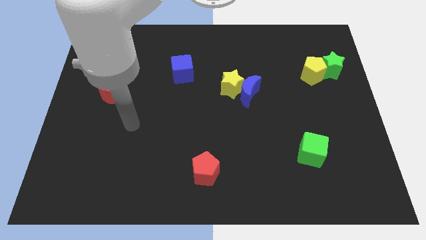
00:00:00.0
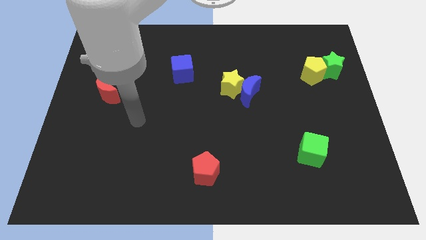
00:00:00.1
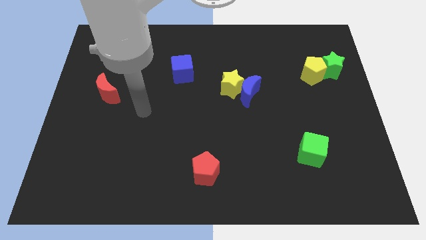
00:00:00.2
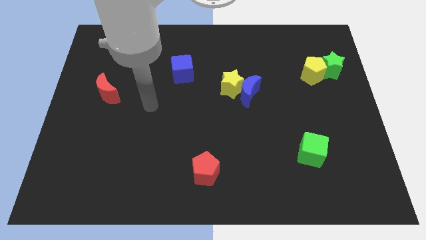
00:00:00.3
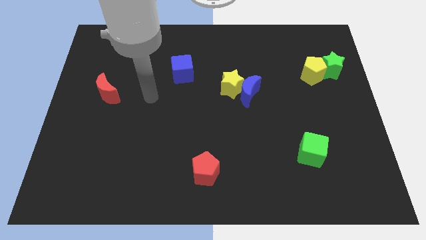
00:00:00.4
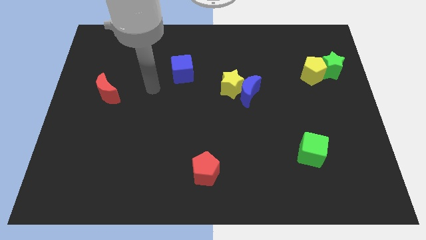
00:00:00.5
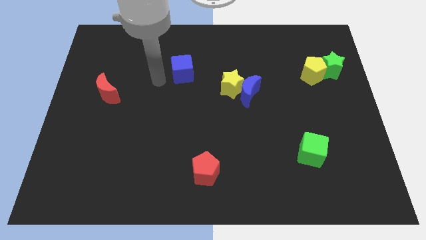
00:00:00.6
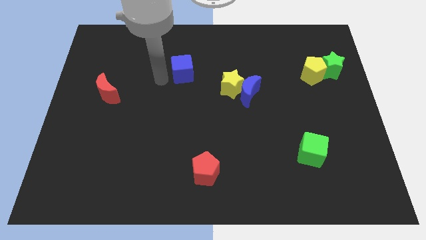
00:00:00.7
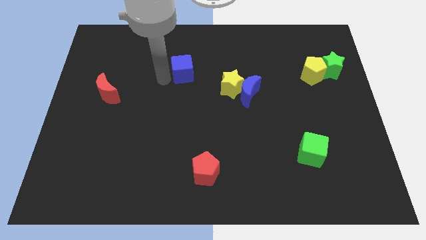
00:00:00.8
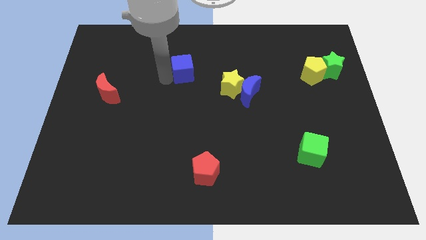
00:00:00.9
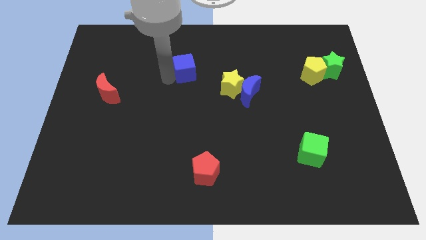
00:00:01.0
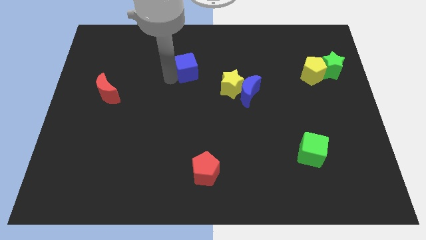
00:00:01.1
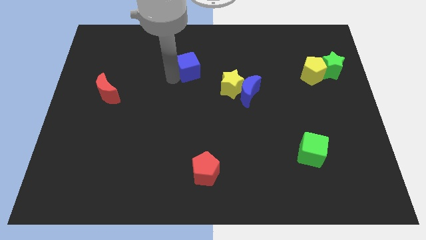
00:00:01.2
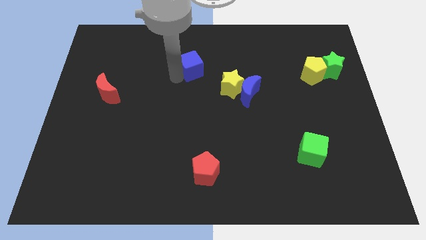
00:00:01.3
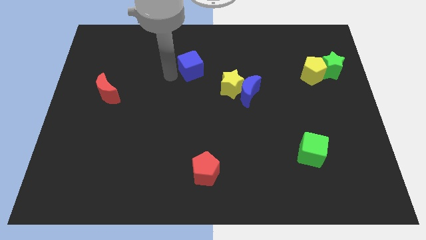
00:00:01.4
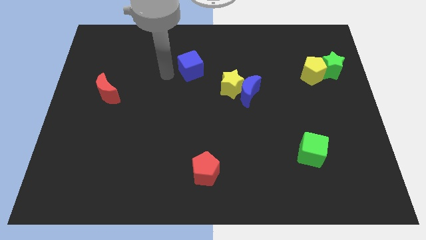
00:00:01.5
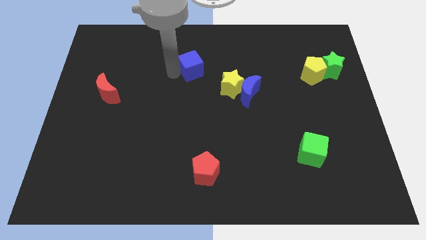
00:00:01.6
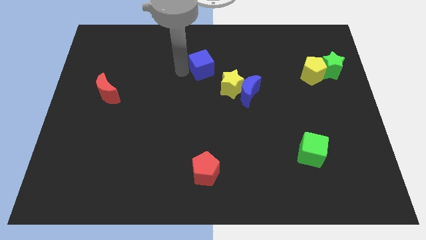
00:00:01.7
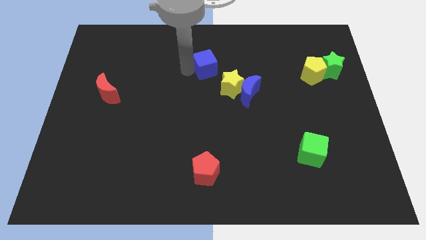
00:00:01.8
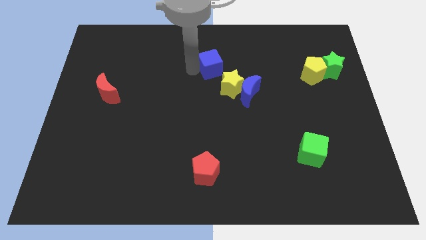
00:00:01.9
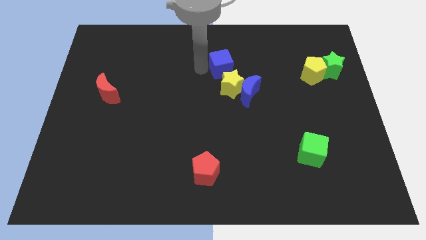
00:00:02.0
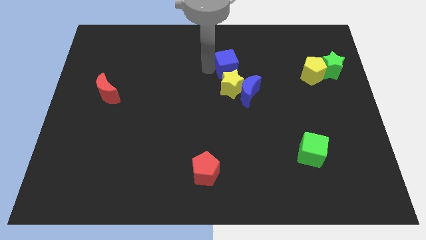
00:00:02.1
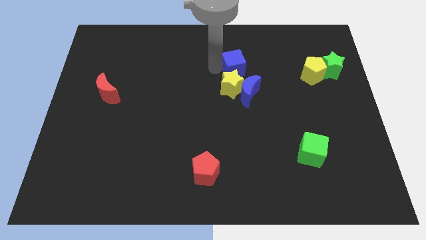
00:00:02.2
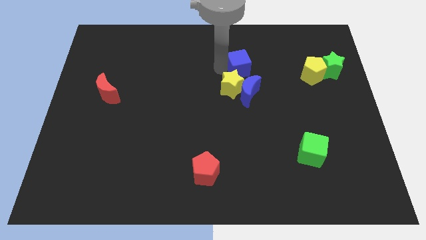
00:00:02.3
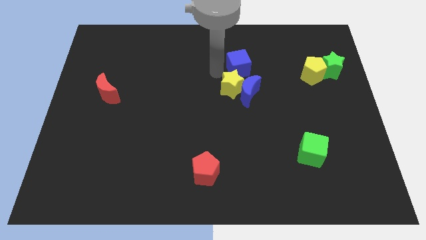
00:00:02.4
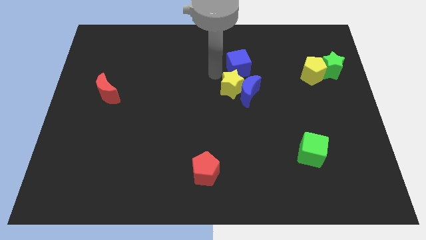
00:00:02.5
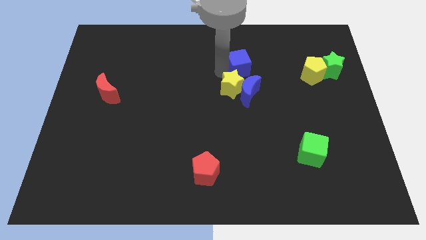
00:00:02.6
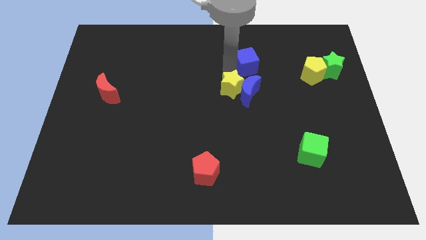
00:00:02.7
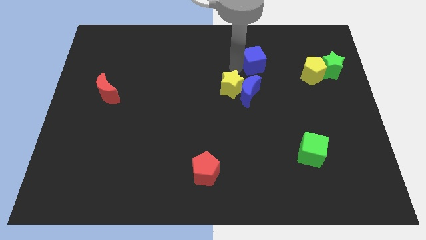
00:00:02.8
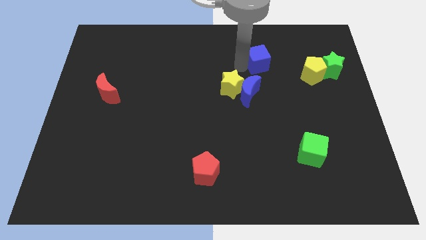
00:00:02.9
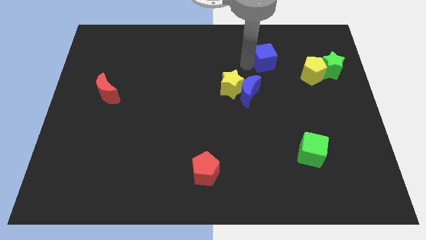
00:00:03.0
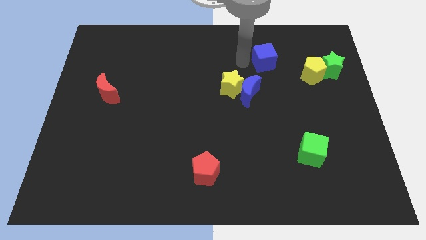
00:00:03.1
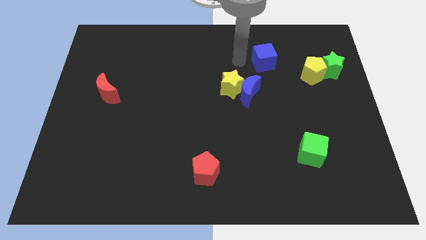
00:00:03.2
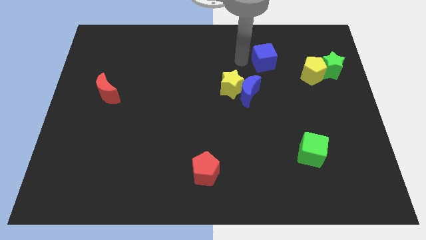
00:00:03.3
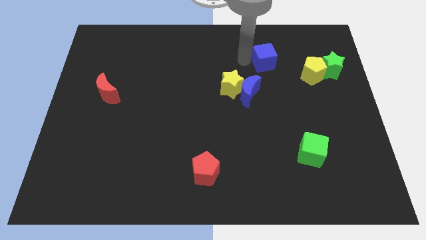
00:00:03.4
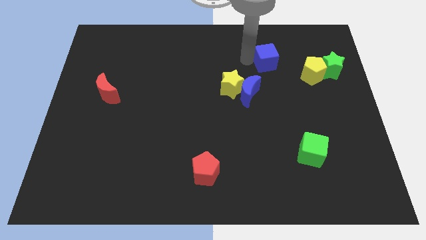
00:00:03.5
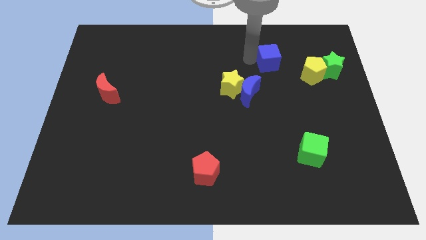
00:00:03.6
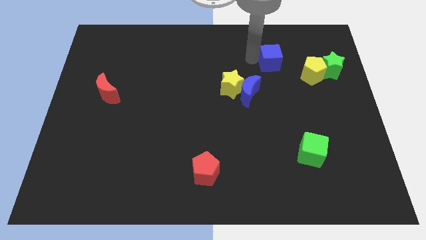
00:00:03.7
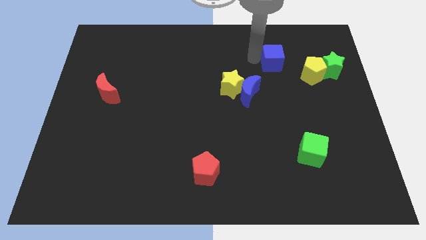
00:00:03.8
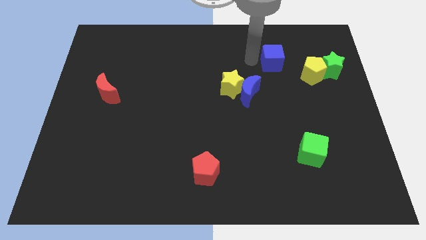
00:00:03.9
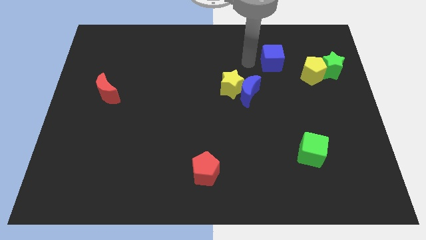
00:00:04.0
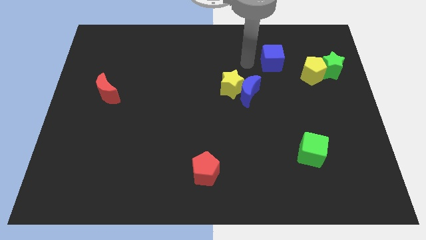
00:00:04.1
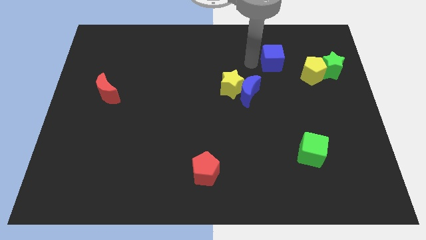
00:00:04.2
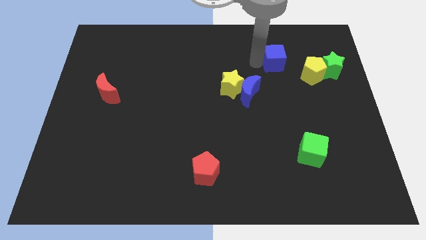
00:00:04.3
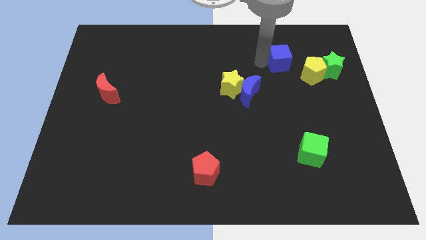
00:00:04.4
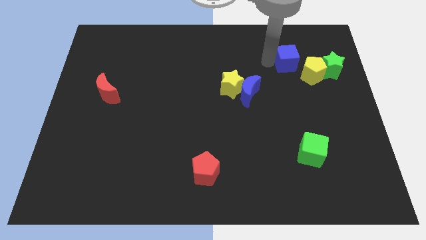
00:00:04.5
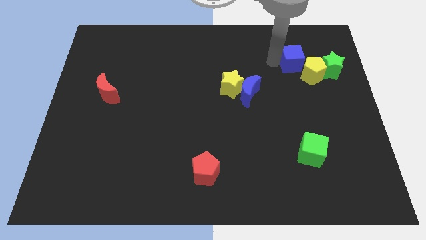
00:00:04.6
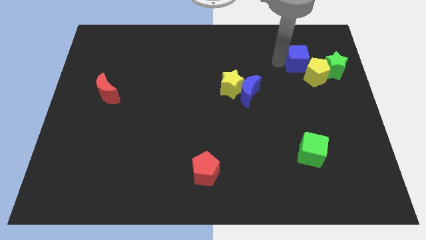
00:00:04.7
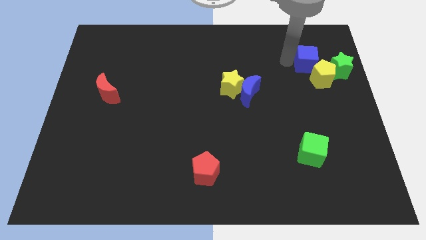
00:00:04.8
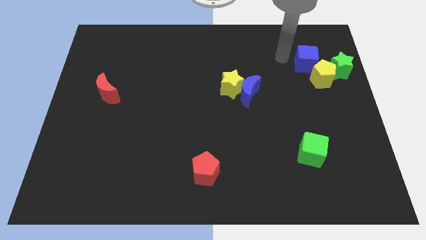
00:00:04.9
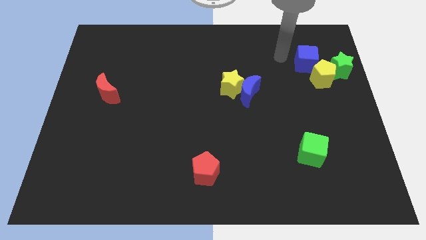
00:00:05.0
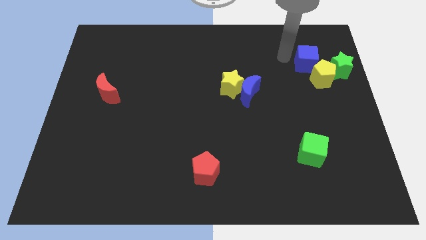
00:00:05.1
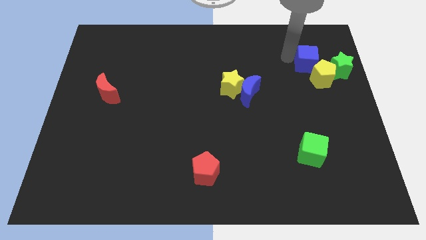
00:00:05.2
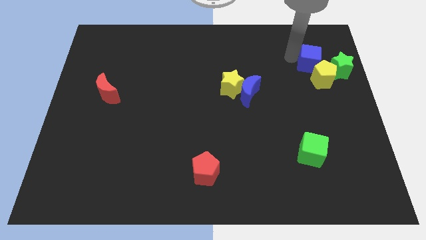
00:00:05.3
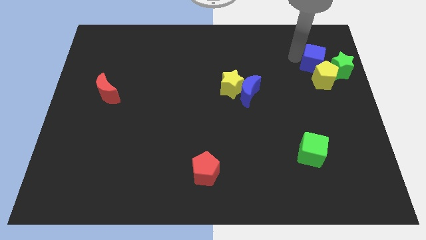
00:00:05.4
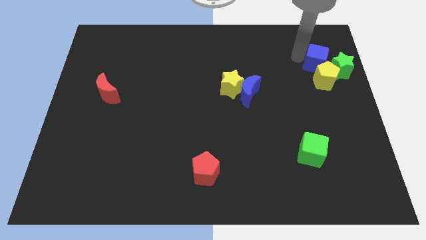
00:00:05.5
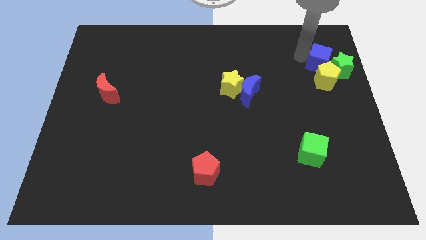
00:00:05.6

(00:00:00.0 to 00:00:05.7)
put the blue cube next to the green star

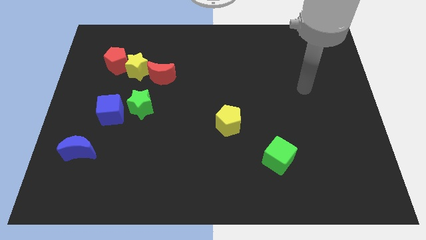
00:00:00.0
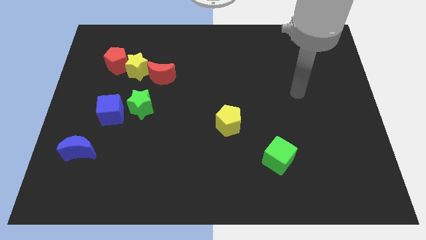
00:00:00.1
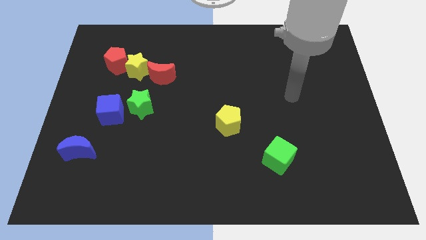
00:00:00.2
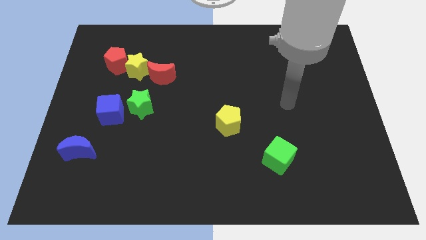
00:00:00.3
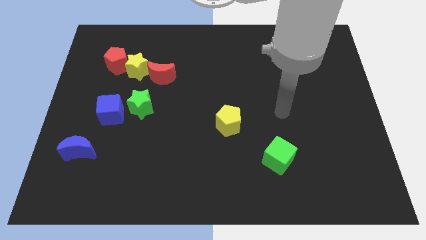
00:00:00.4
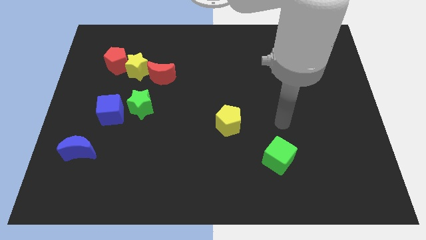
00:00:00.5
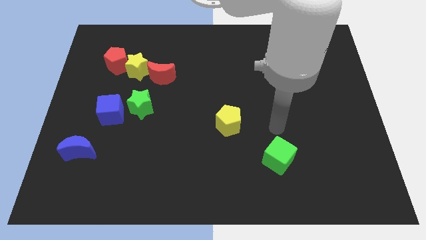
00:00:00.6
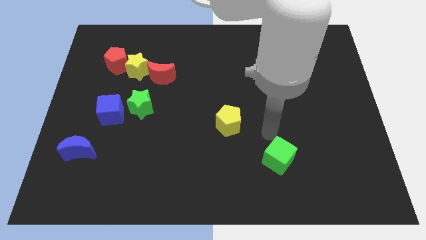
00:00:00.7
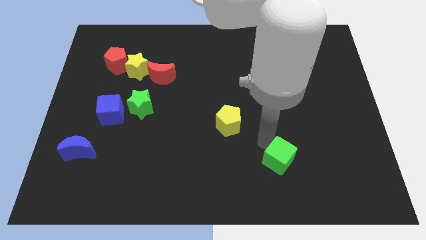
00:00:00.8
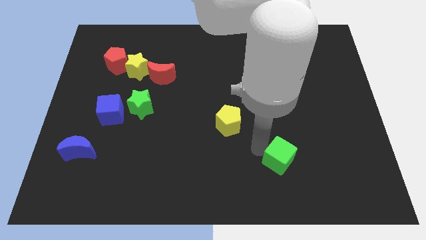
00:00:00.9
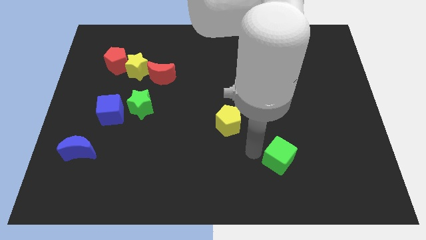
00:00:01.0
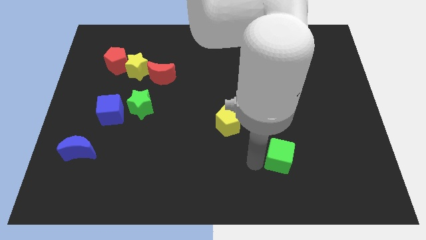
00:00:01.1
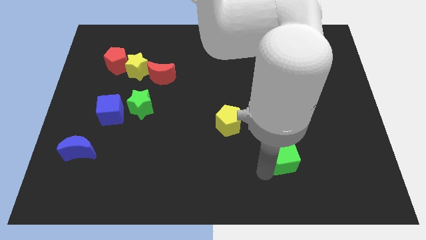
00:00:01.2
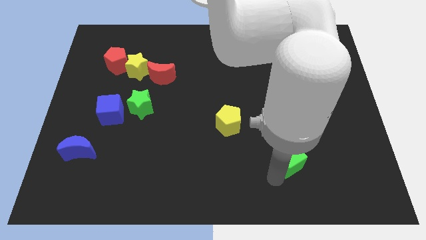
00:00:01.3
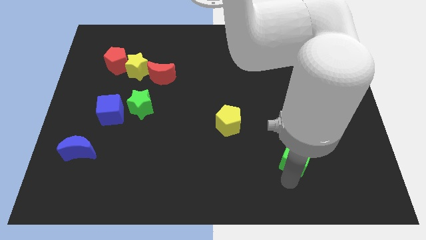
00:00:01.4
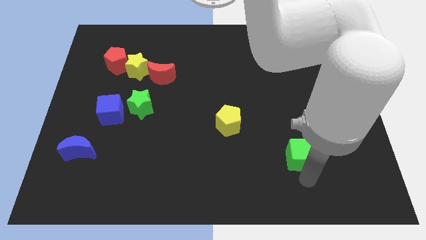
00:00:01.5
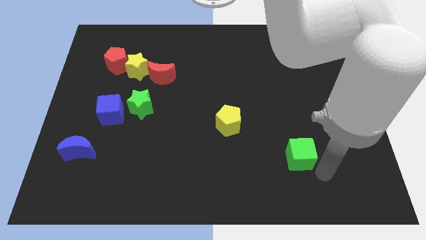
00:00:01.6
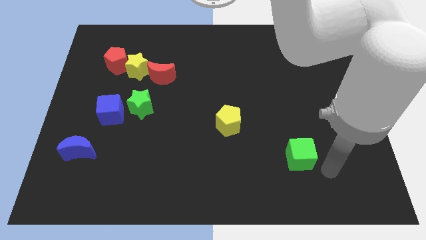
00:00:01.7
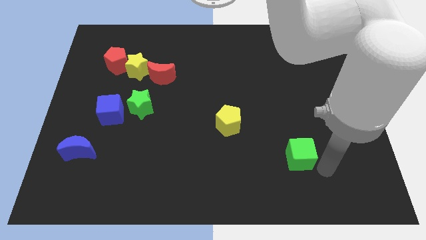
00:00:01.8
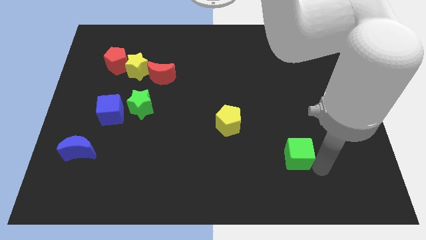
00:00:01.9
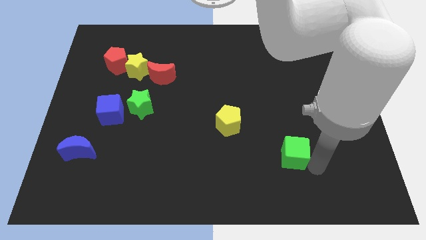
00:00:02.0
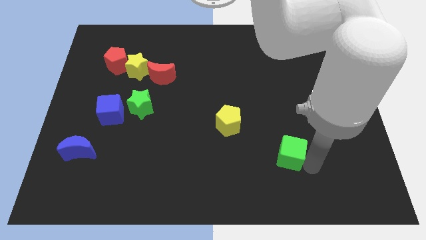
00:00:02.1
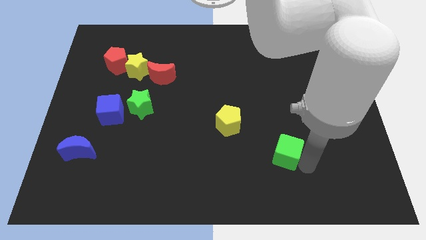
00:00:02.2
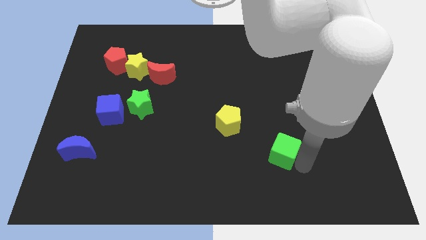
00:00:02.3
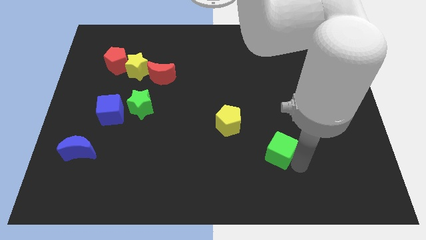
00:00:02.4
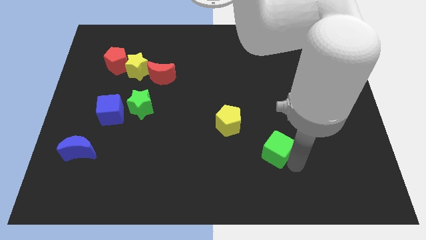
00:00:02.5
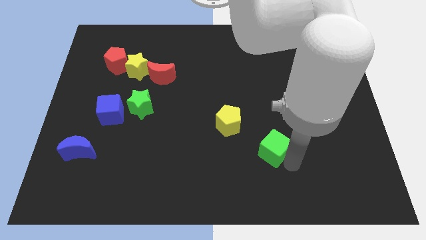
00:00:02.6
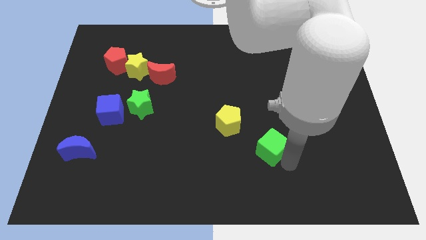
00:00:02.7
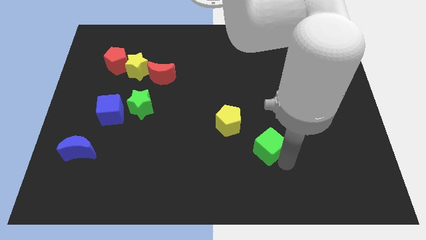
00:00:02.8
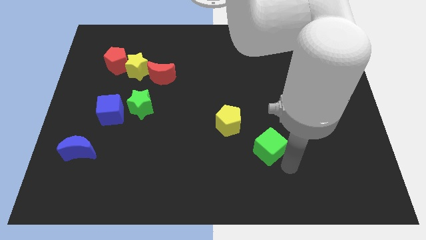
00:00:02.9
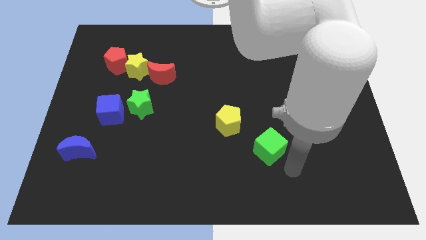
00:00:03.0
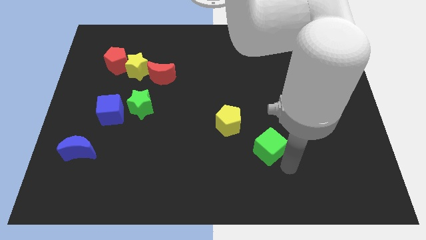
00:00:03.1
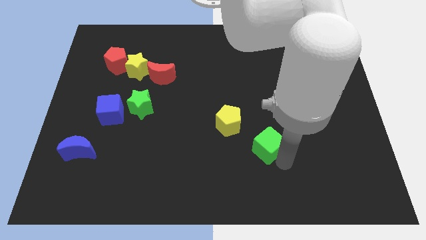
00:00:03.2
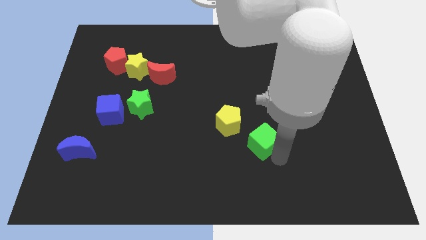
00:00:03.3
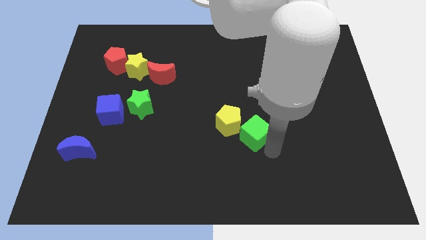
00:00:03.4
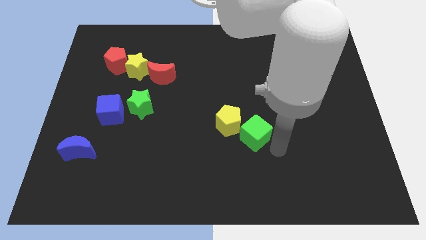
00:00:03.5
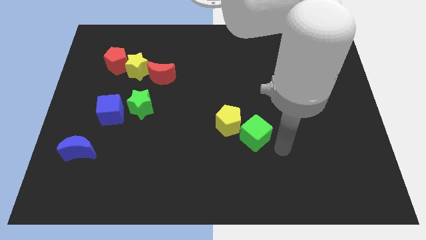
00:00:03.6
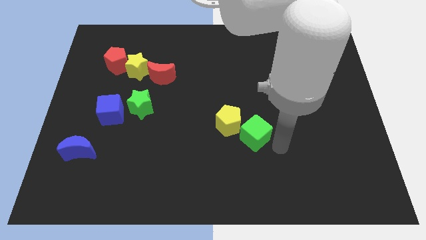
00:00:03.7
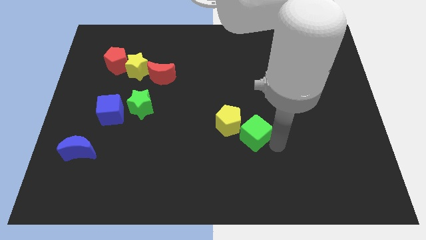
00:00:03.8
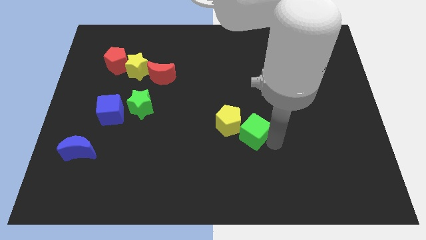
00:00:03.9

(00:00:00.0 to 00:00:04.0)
move the green cube next to the yellow pentagon
